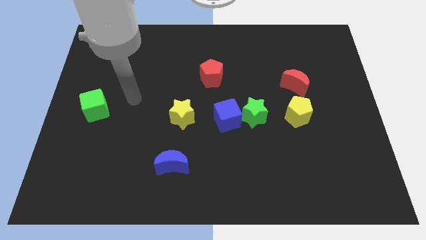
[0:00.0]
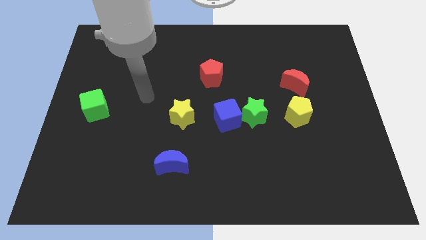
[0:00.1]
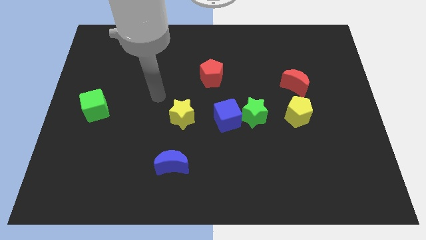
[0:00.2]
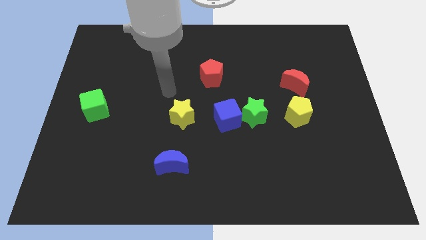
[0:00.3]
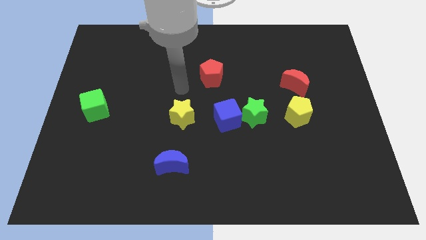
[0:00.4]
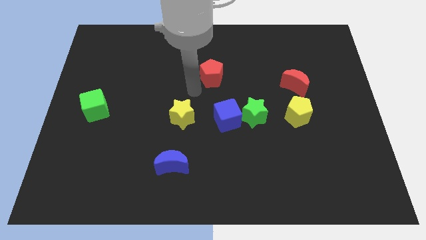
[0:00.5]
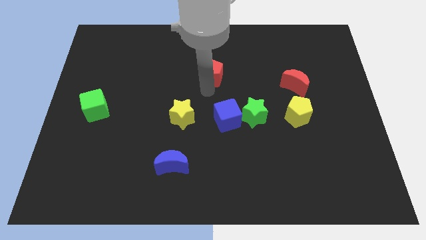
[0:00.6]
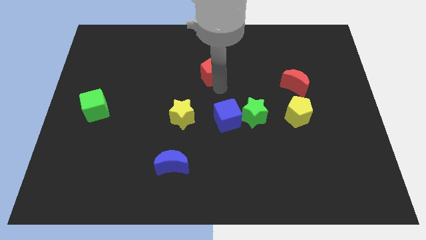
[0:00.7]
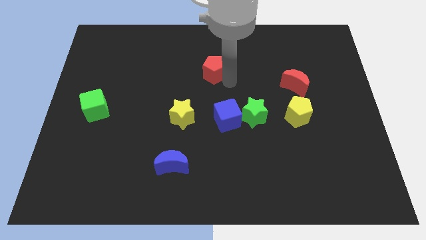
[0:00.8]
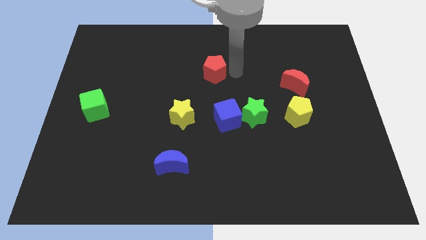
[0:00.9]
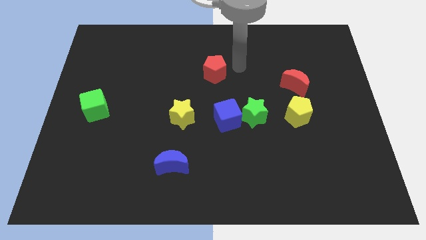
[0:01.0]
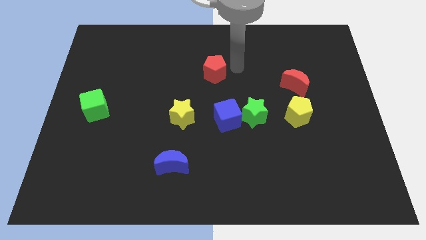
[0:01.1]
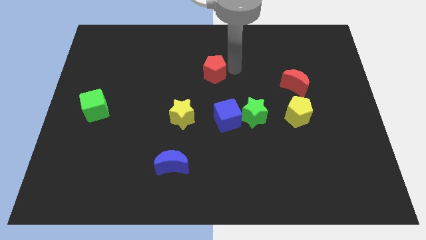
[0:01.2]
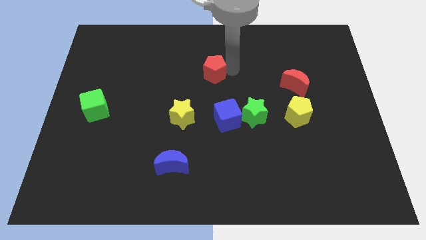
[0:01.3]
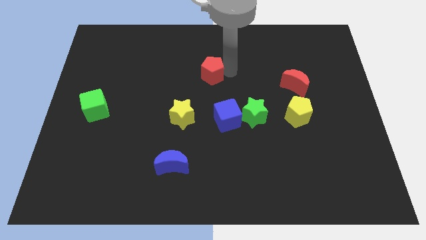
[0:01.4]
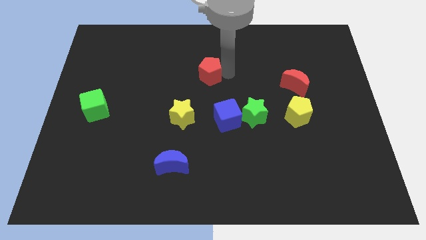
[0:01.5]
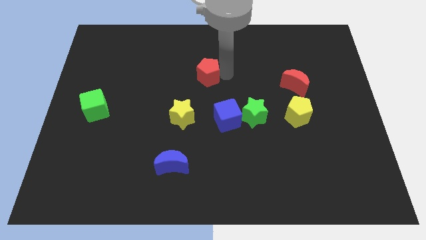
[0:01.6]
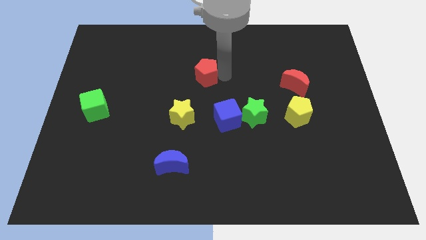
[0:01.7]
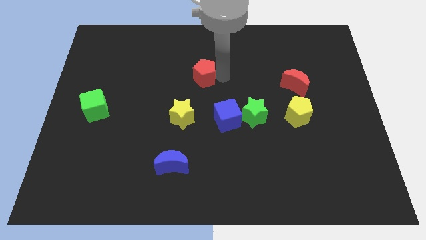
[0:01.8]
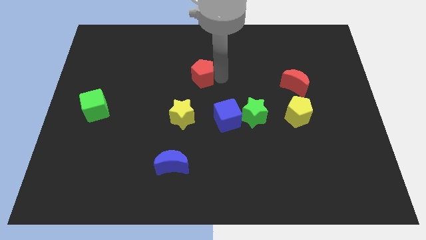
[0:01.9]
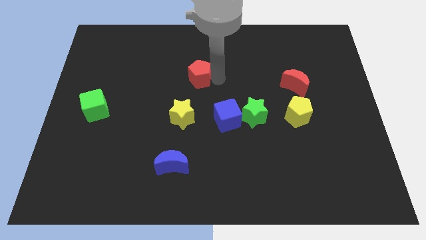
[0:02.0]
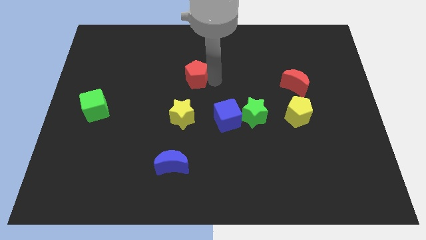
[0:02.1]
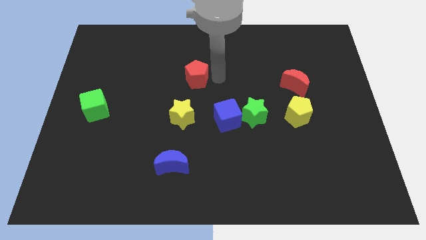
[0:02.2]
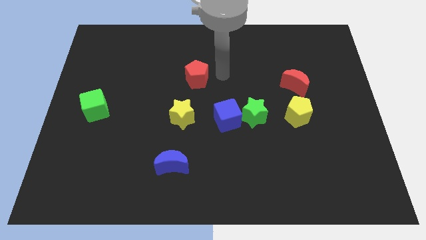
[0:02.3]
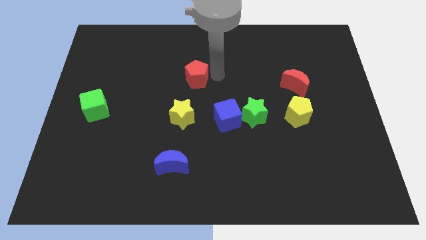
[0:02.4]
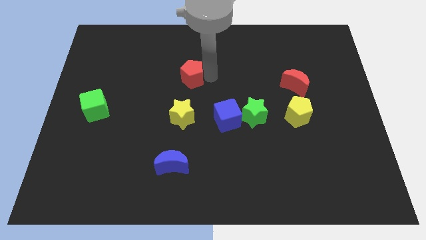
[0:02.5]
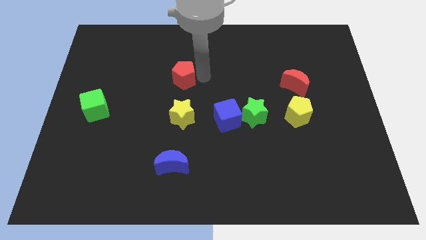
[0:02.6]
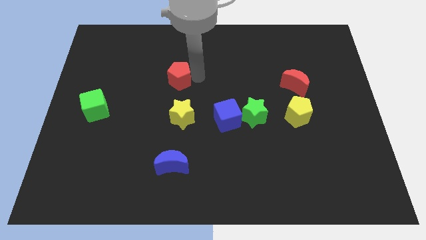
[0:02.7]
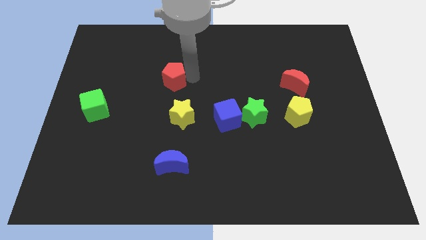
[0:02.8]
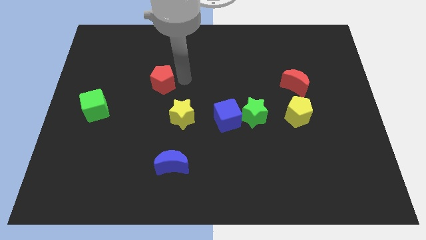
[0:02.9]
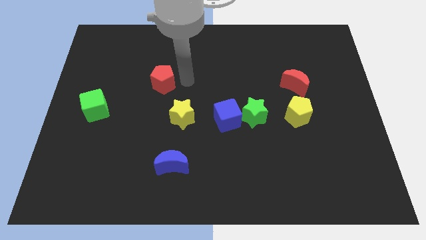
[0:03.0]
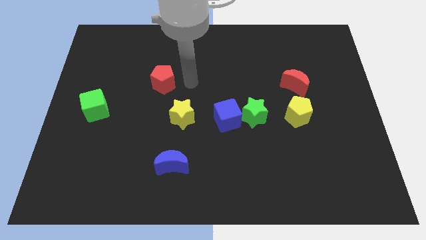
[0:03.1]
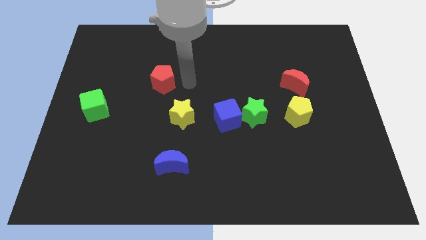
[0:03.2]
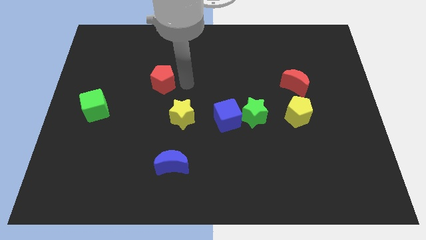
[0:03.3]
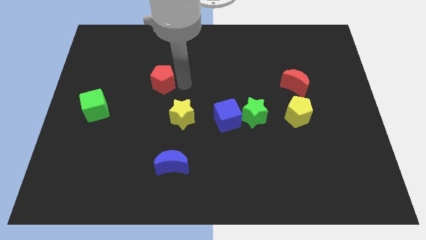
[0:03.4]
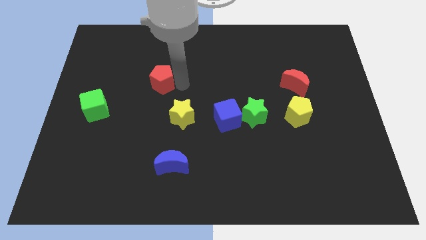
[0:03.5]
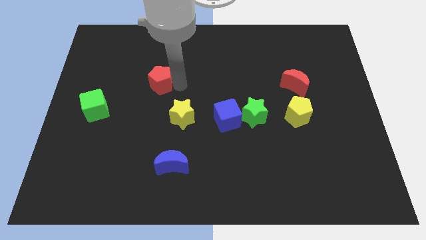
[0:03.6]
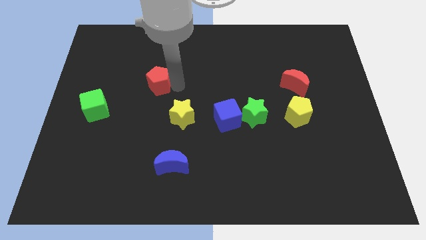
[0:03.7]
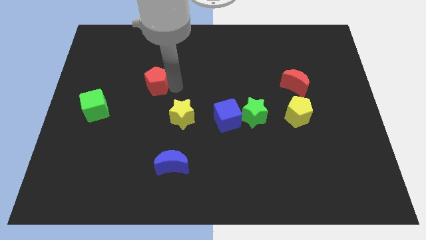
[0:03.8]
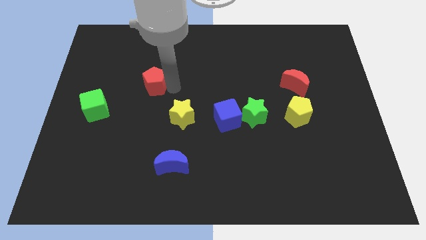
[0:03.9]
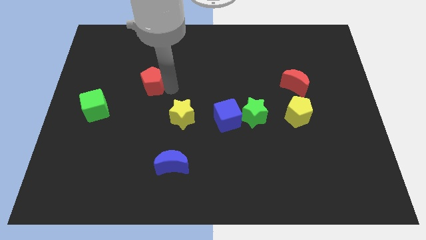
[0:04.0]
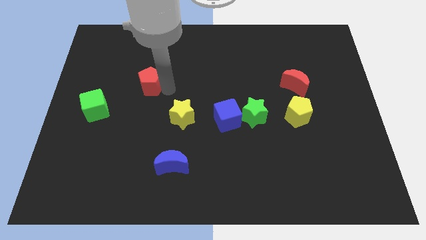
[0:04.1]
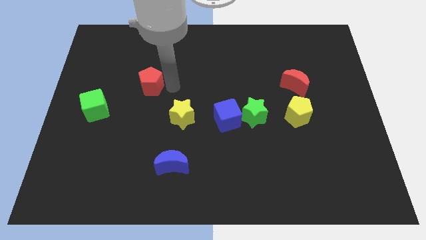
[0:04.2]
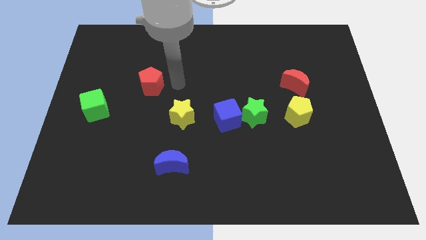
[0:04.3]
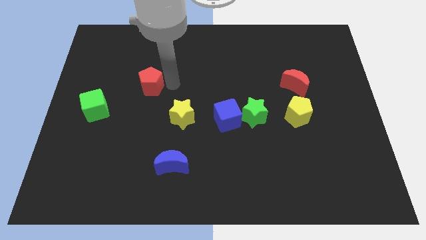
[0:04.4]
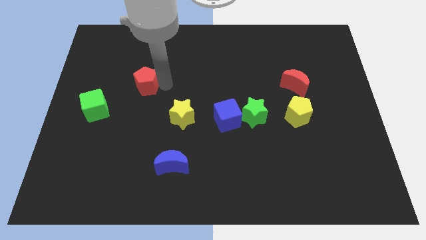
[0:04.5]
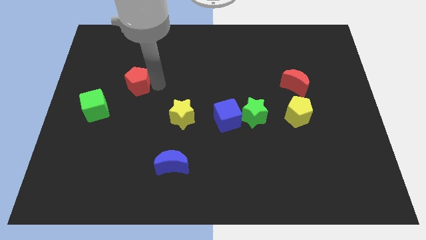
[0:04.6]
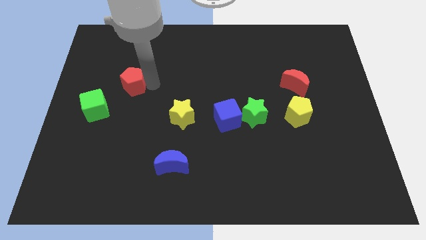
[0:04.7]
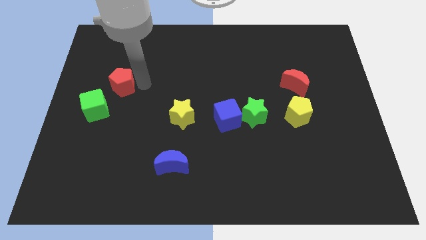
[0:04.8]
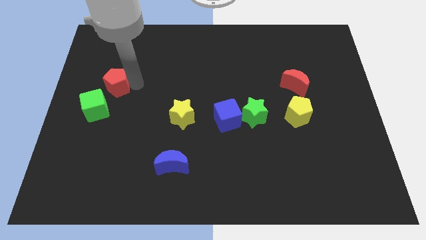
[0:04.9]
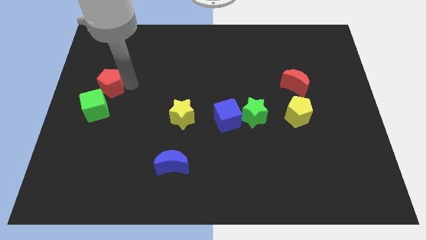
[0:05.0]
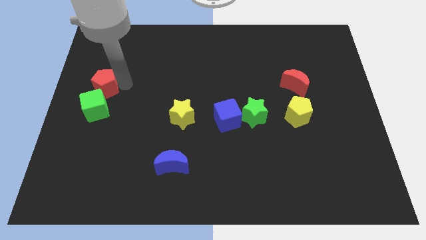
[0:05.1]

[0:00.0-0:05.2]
push the red pentagon to the left side

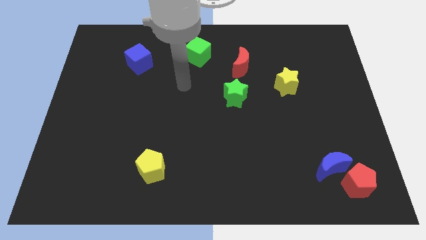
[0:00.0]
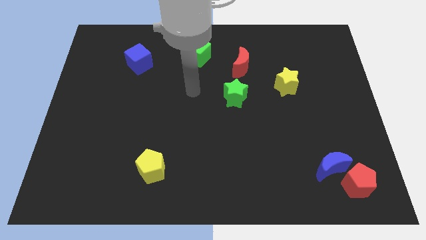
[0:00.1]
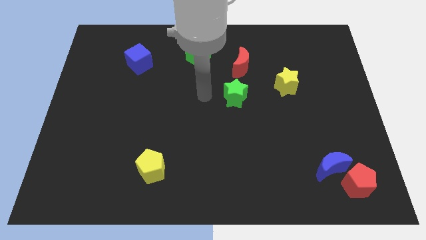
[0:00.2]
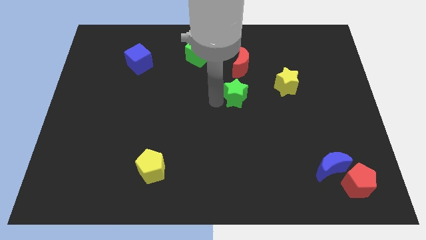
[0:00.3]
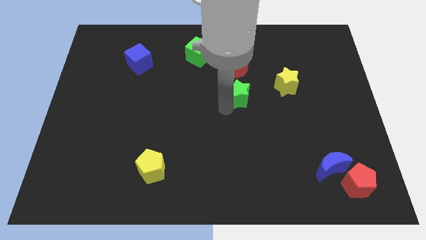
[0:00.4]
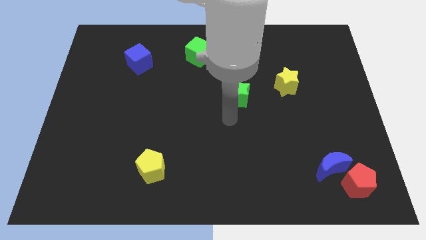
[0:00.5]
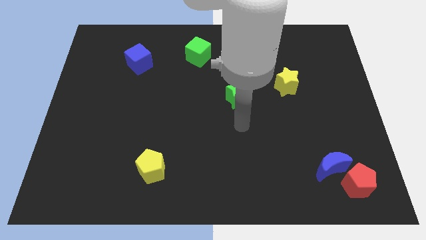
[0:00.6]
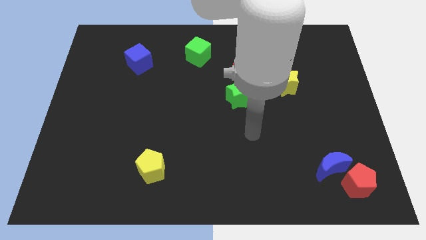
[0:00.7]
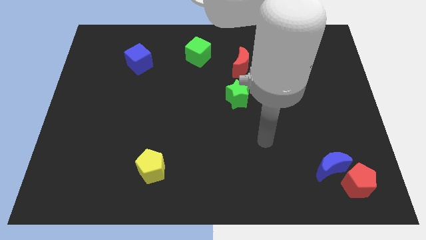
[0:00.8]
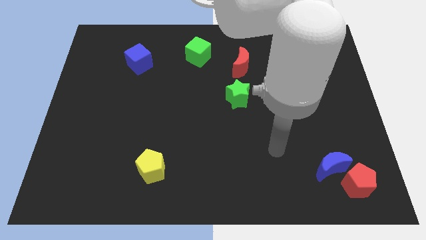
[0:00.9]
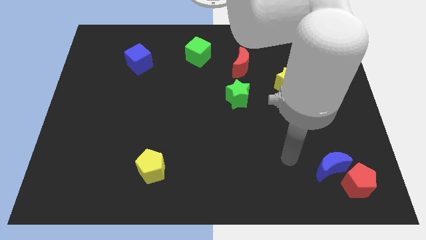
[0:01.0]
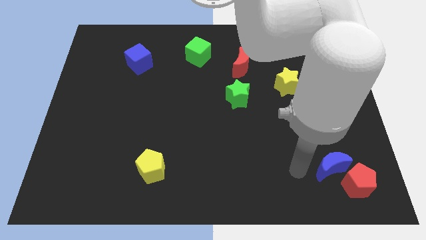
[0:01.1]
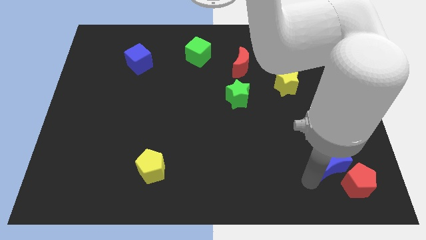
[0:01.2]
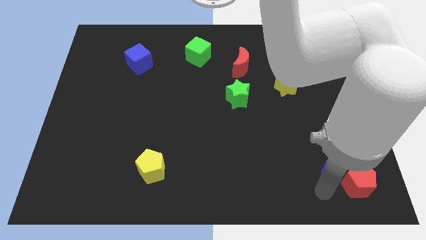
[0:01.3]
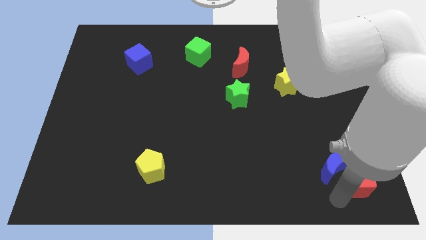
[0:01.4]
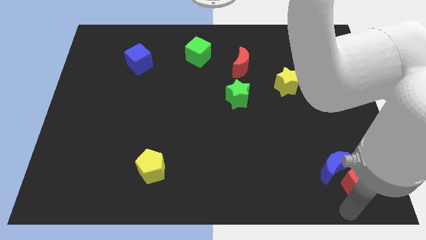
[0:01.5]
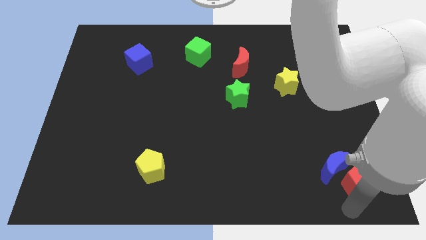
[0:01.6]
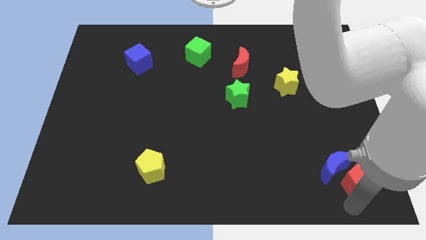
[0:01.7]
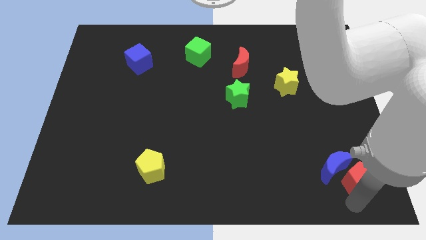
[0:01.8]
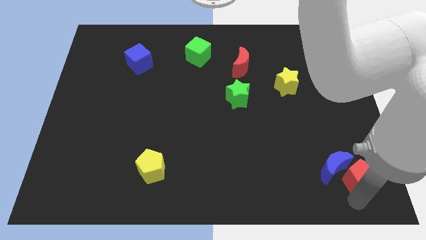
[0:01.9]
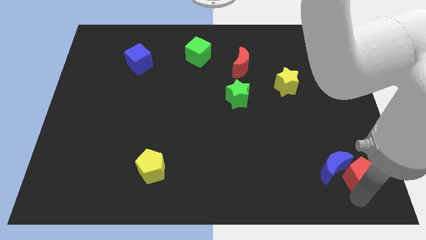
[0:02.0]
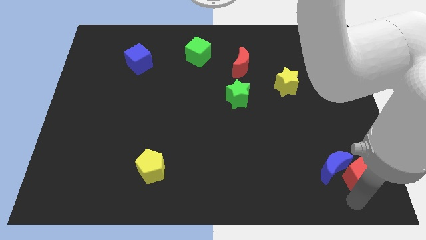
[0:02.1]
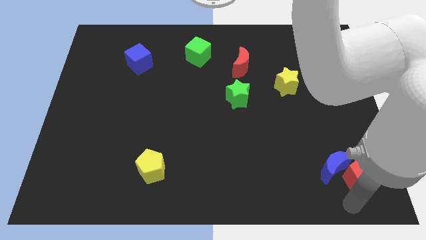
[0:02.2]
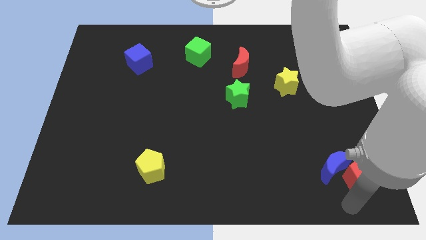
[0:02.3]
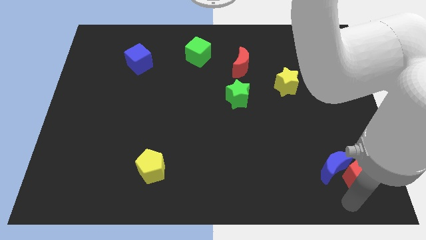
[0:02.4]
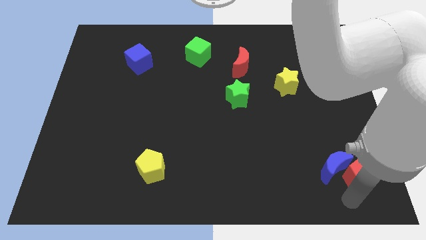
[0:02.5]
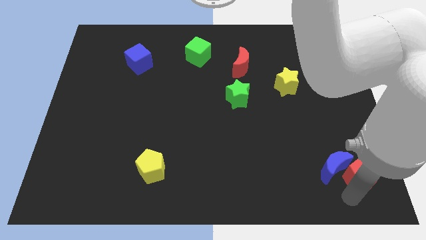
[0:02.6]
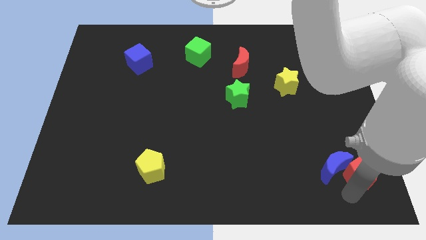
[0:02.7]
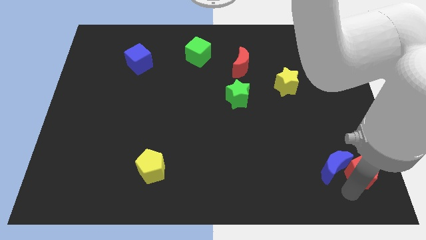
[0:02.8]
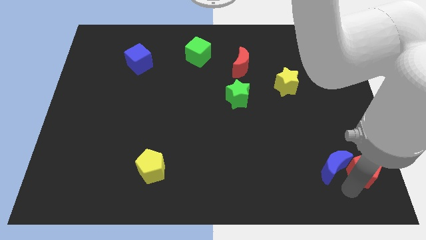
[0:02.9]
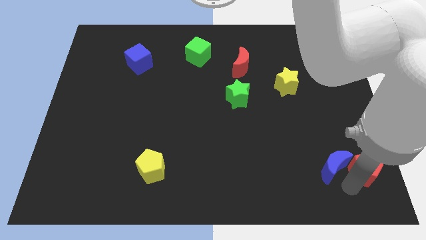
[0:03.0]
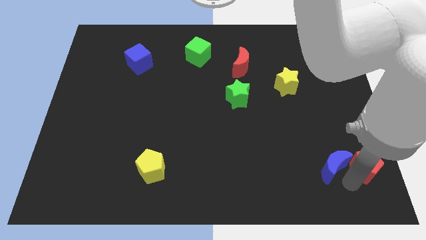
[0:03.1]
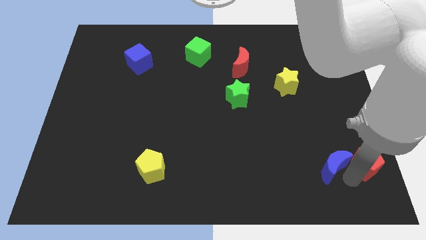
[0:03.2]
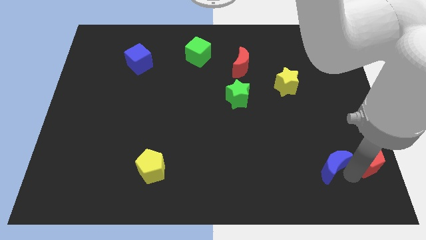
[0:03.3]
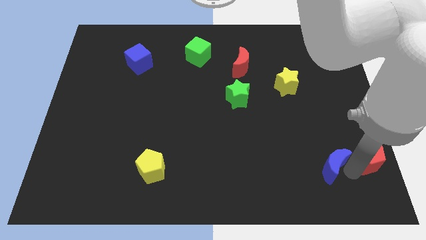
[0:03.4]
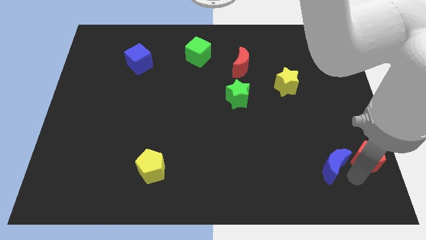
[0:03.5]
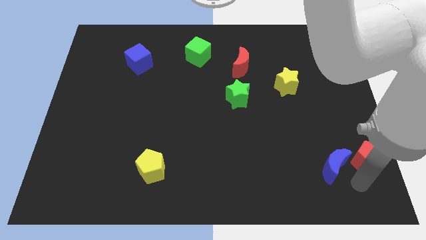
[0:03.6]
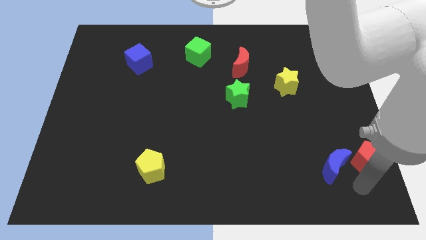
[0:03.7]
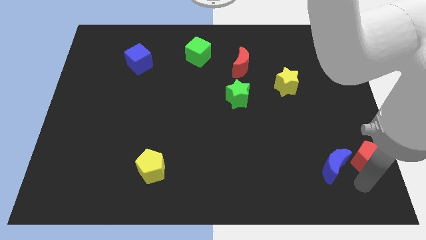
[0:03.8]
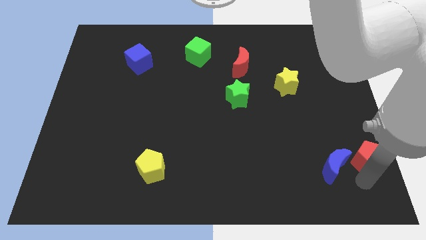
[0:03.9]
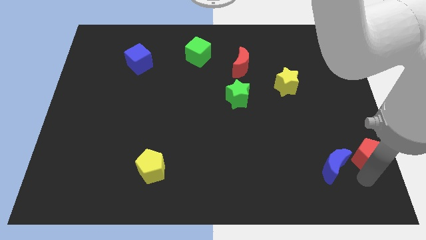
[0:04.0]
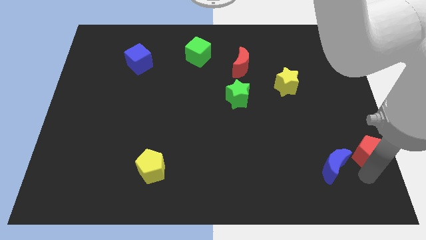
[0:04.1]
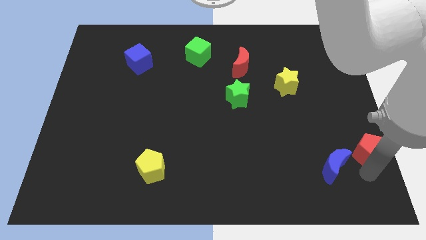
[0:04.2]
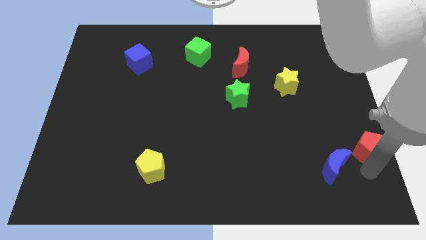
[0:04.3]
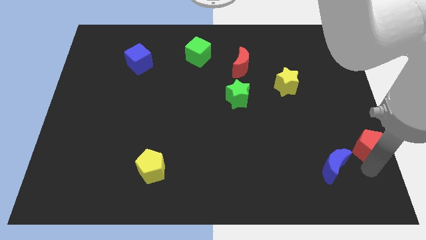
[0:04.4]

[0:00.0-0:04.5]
slide the red pentagon to the right side
